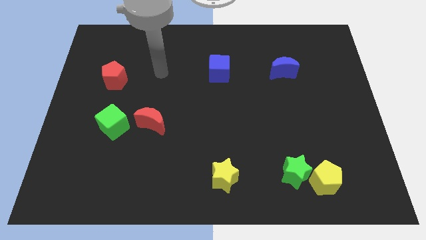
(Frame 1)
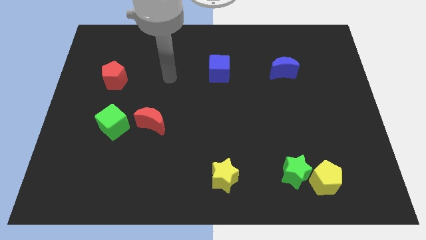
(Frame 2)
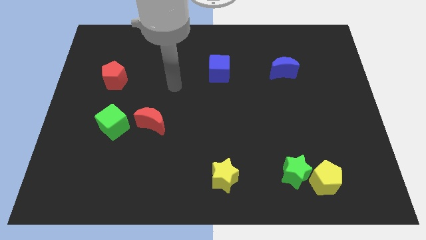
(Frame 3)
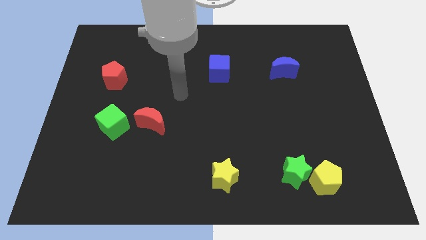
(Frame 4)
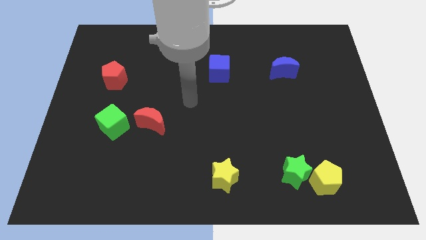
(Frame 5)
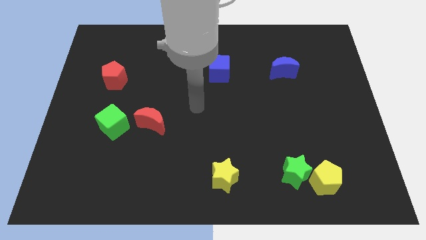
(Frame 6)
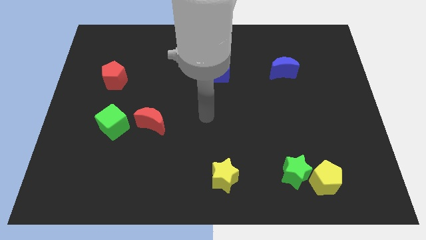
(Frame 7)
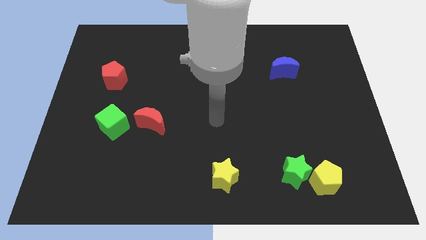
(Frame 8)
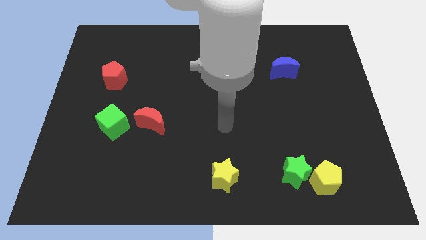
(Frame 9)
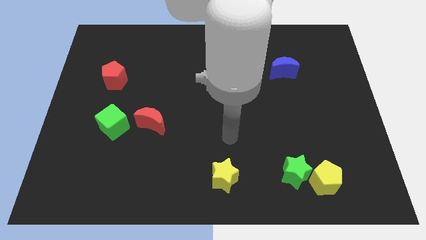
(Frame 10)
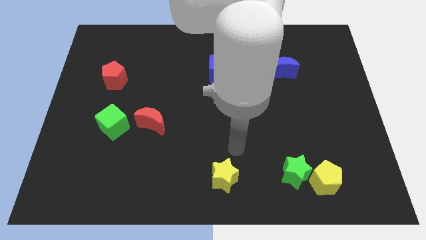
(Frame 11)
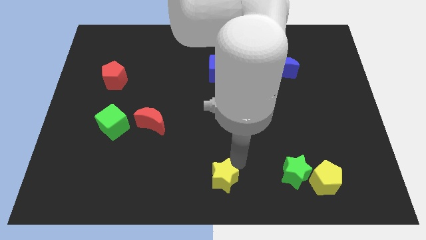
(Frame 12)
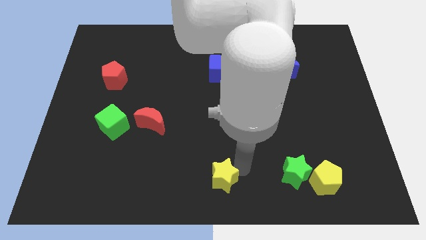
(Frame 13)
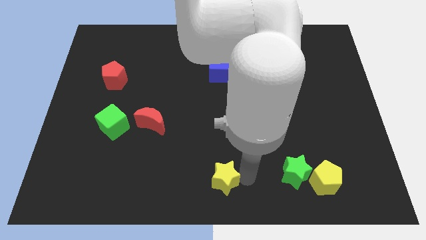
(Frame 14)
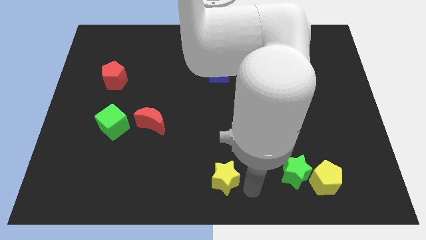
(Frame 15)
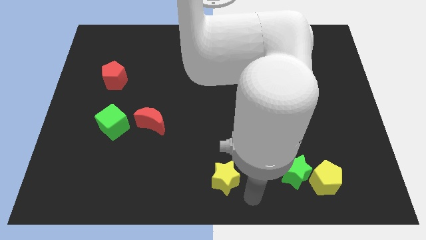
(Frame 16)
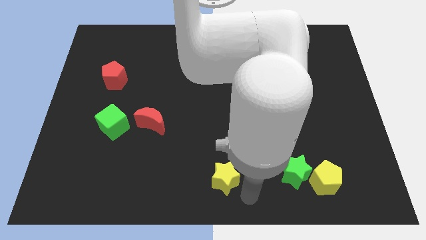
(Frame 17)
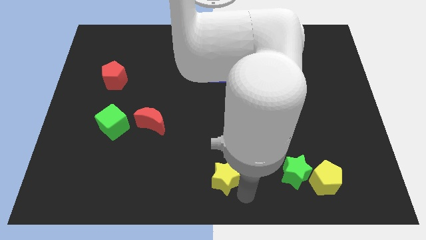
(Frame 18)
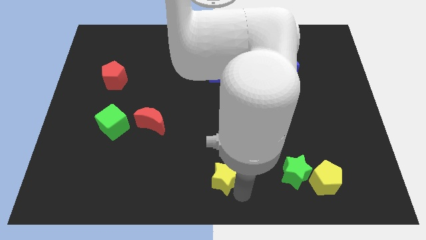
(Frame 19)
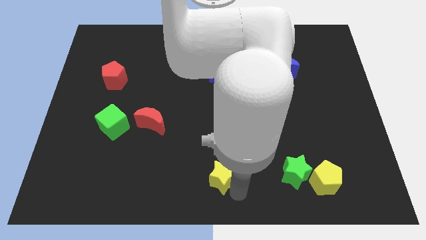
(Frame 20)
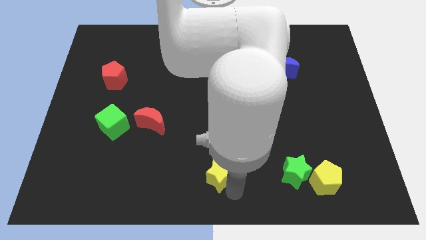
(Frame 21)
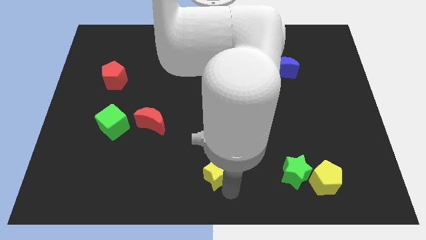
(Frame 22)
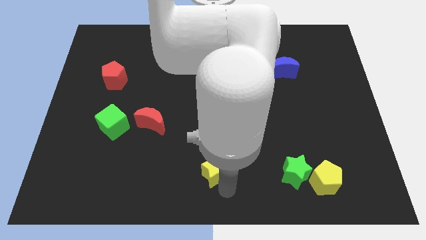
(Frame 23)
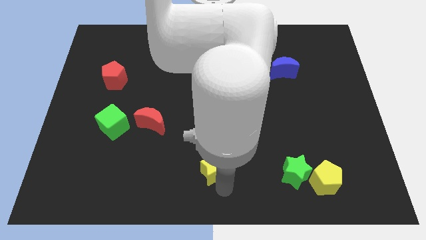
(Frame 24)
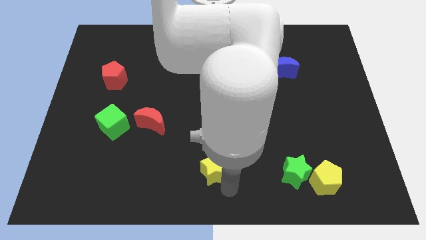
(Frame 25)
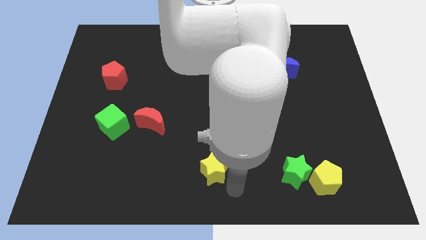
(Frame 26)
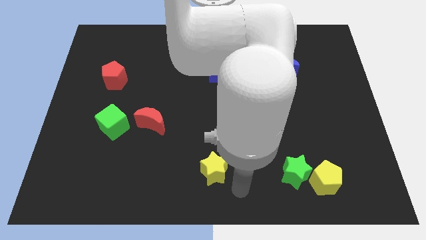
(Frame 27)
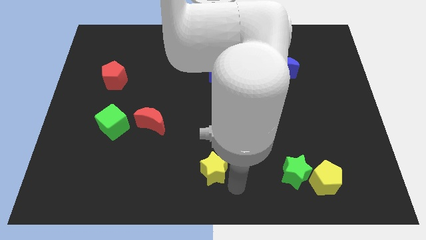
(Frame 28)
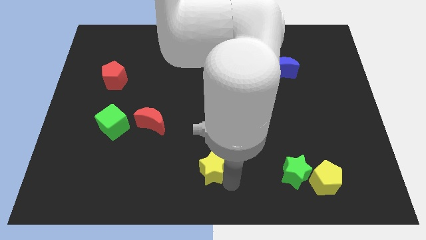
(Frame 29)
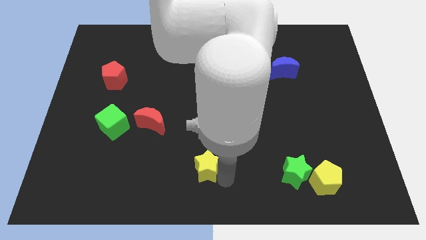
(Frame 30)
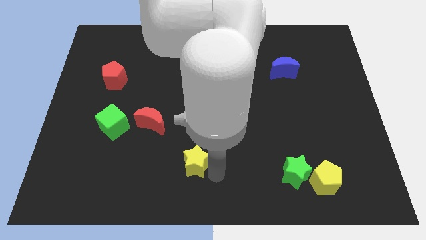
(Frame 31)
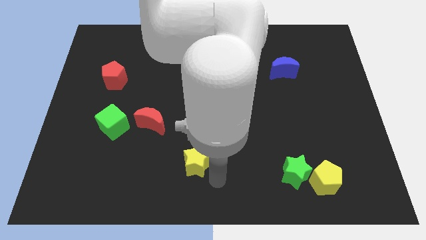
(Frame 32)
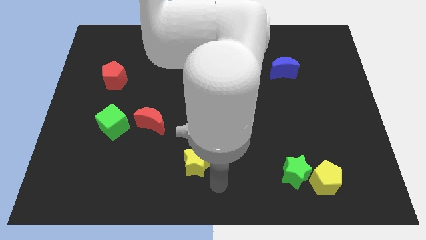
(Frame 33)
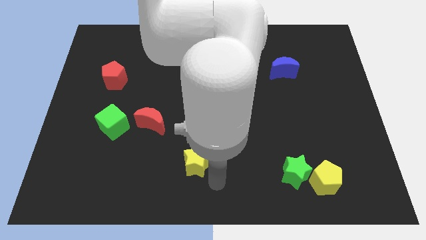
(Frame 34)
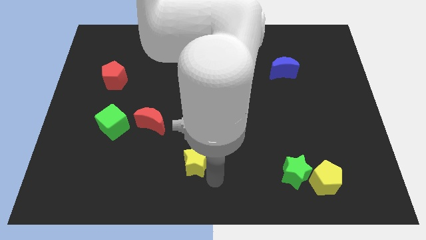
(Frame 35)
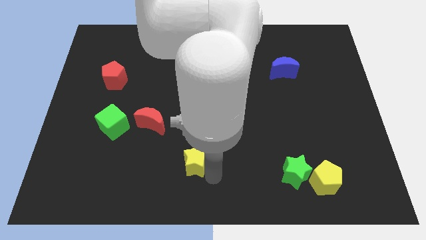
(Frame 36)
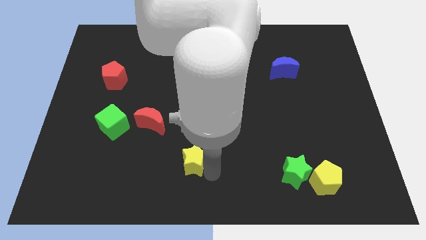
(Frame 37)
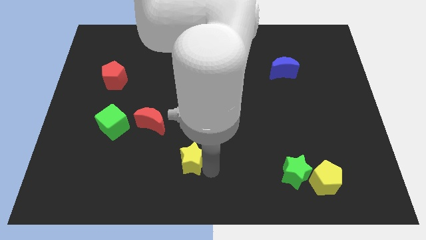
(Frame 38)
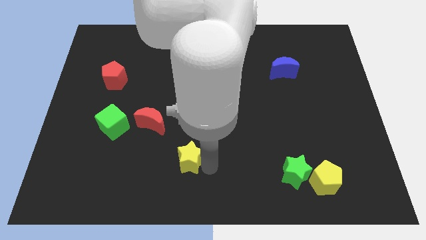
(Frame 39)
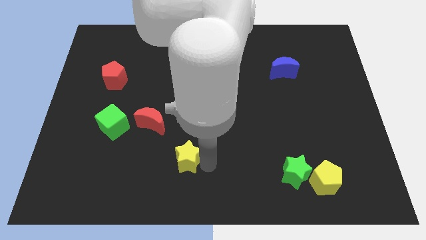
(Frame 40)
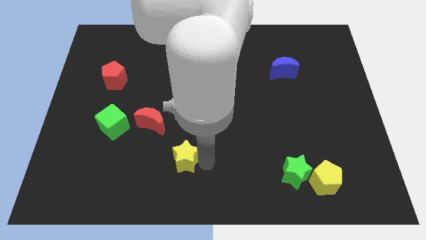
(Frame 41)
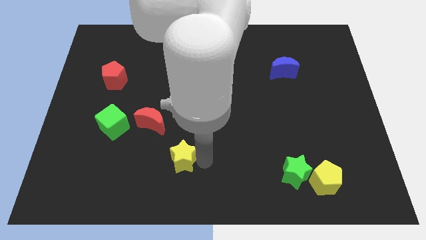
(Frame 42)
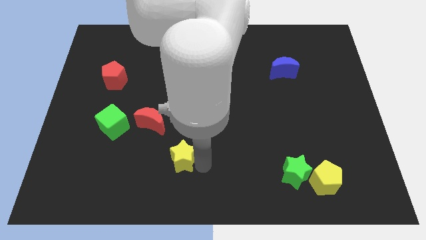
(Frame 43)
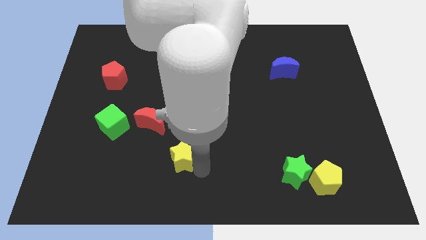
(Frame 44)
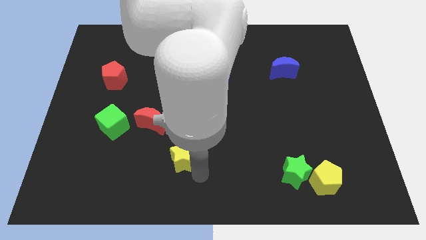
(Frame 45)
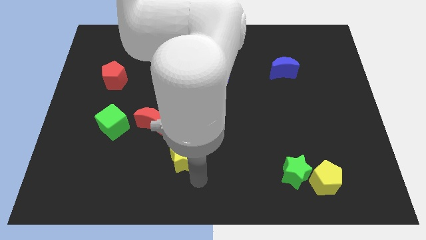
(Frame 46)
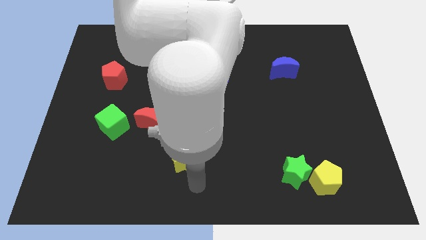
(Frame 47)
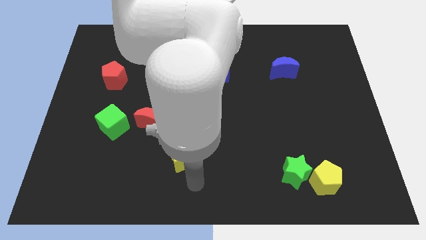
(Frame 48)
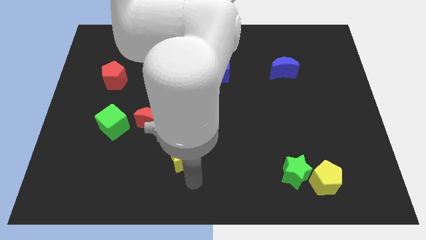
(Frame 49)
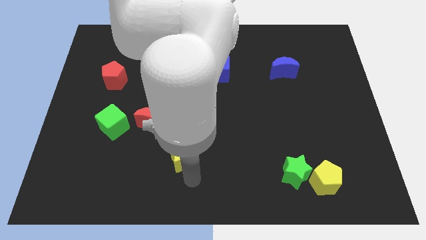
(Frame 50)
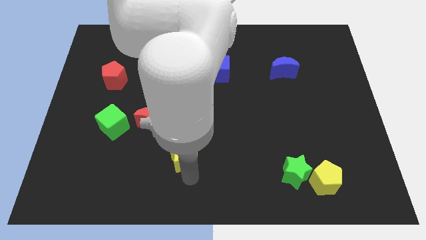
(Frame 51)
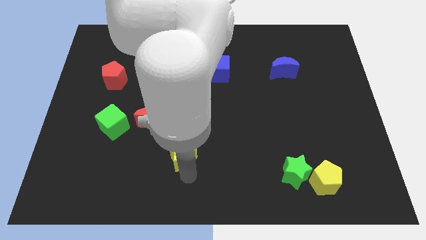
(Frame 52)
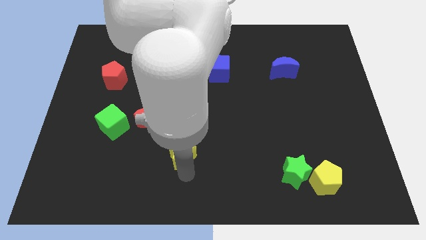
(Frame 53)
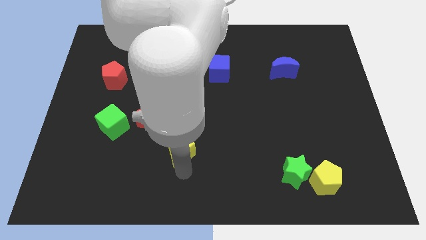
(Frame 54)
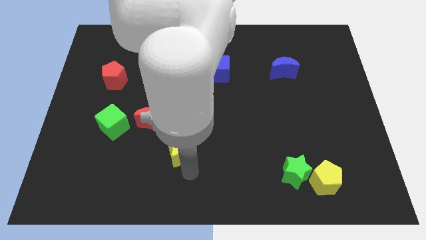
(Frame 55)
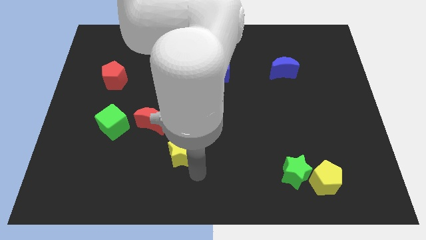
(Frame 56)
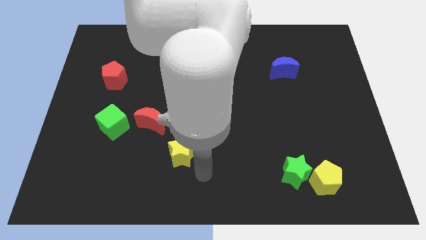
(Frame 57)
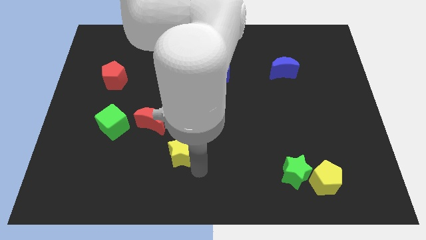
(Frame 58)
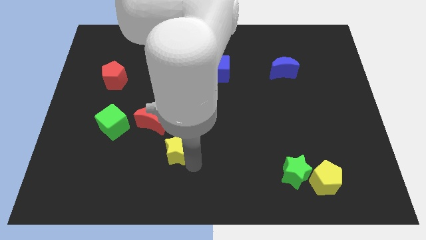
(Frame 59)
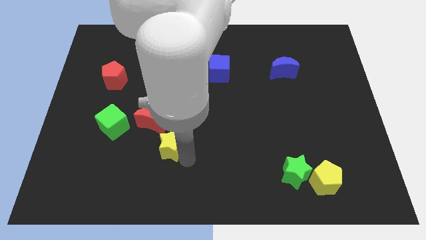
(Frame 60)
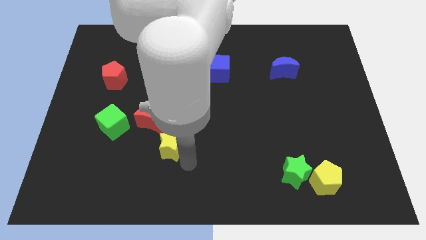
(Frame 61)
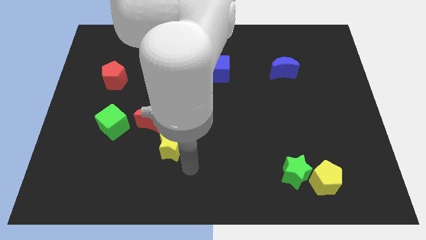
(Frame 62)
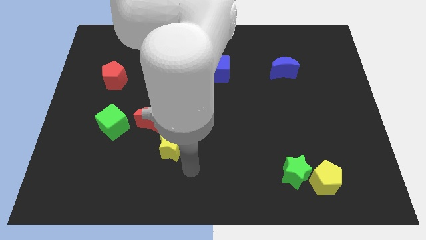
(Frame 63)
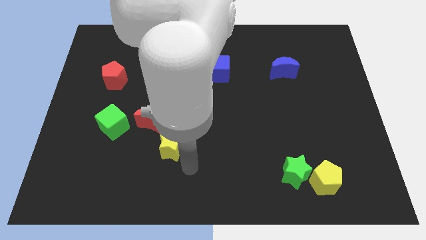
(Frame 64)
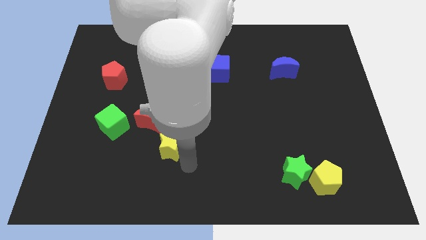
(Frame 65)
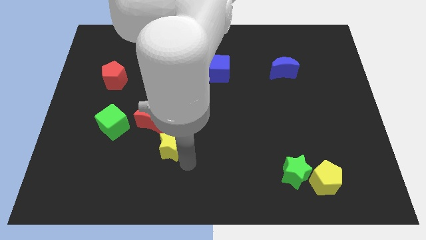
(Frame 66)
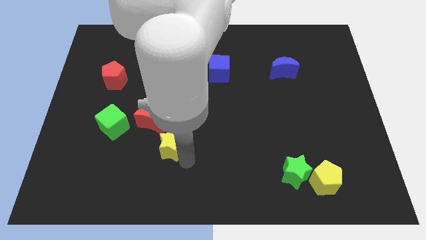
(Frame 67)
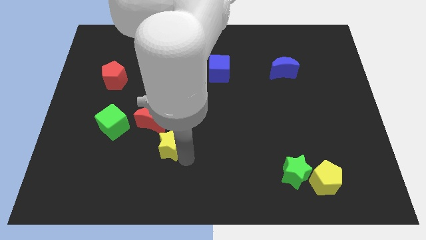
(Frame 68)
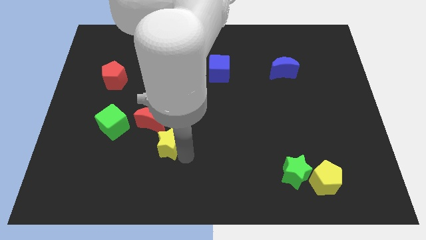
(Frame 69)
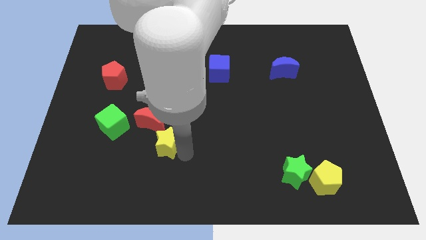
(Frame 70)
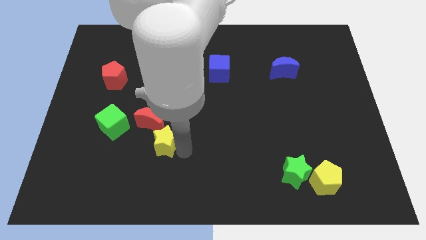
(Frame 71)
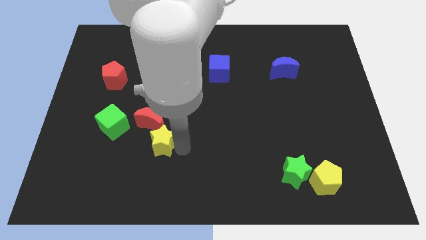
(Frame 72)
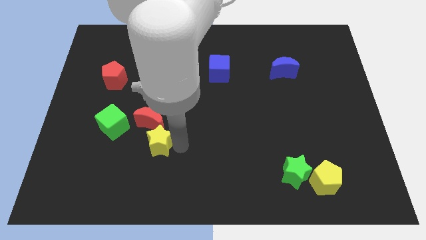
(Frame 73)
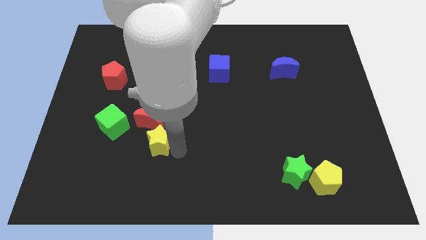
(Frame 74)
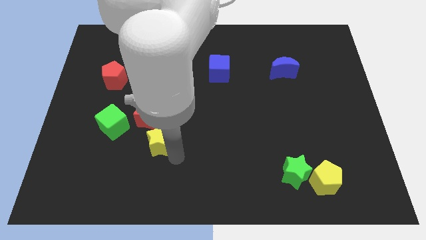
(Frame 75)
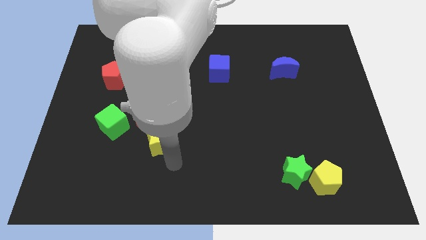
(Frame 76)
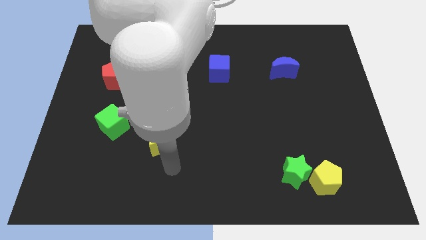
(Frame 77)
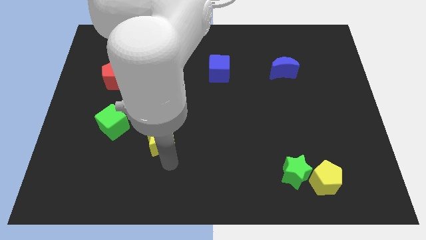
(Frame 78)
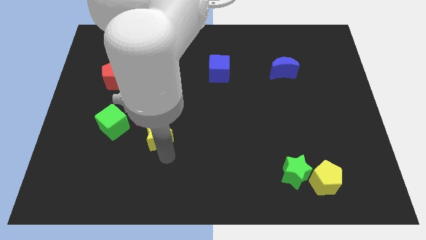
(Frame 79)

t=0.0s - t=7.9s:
put the yellow star next to the red moon
